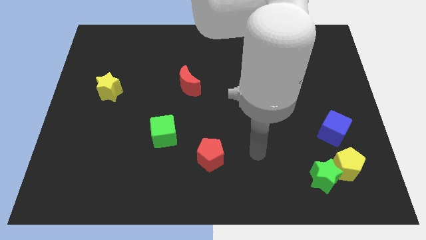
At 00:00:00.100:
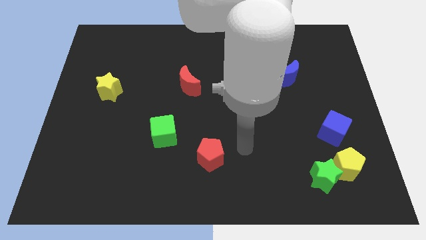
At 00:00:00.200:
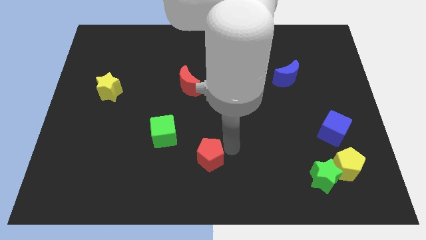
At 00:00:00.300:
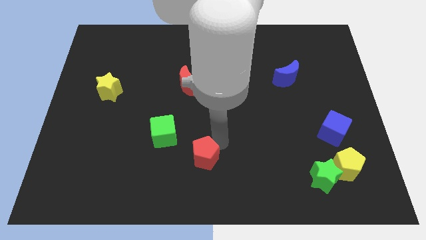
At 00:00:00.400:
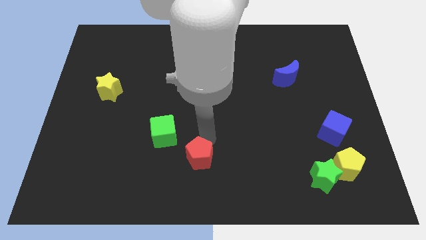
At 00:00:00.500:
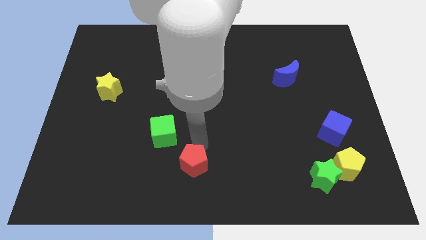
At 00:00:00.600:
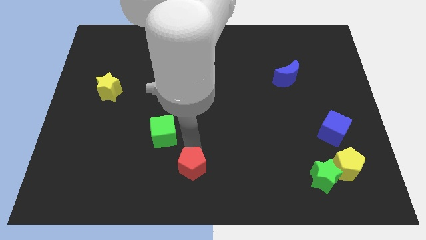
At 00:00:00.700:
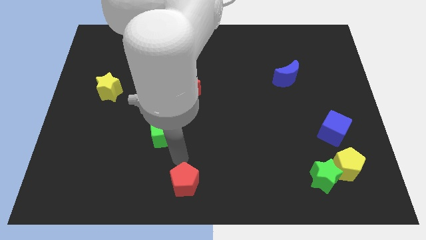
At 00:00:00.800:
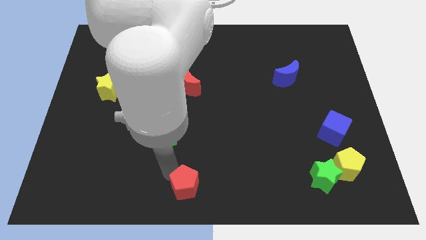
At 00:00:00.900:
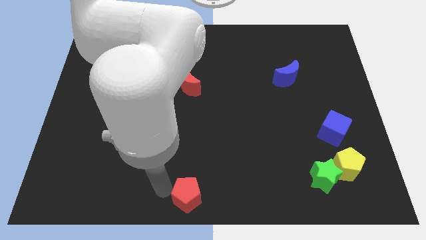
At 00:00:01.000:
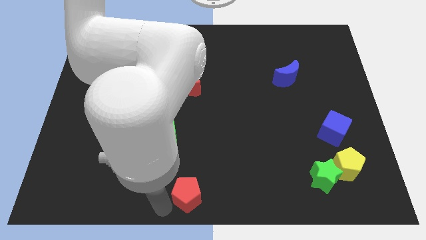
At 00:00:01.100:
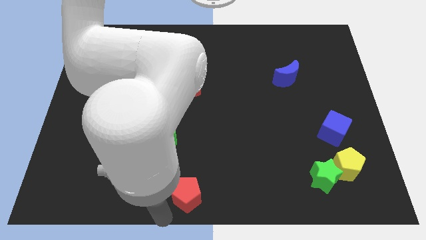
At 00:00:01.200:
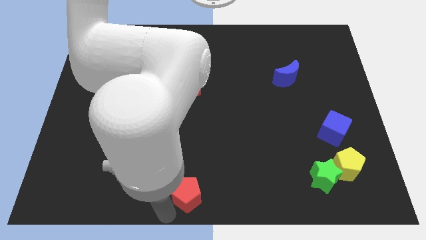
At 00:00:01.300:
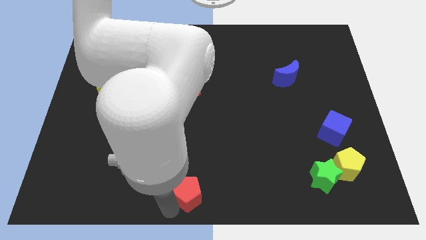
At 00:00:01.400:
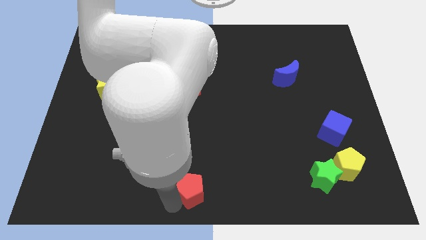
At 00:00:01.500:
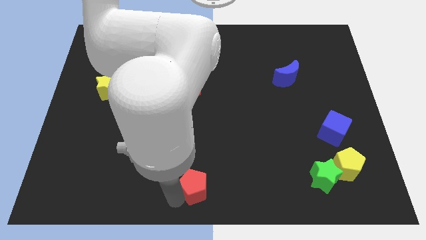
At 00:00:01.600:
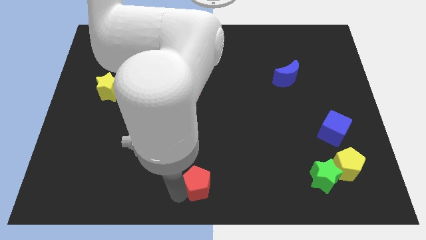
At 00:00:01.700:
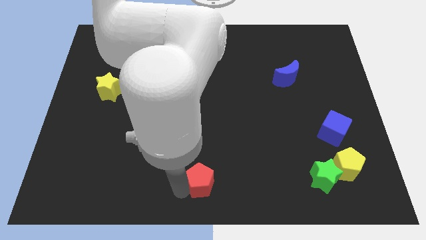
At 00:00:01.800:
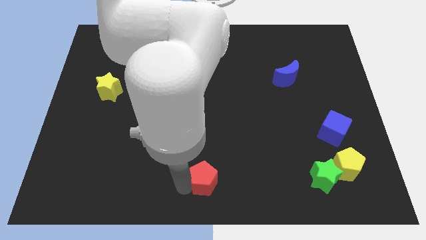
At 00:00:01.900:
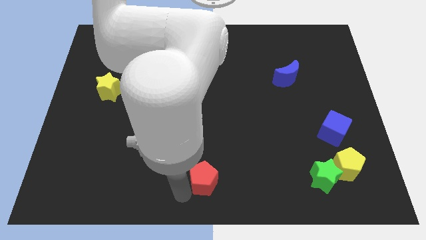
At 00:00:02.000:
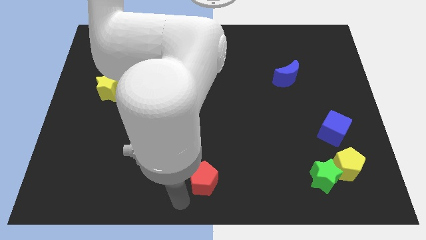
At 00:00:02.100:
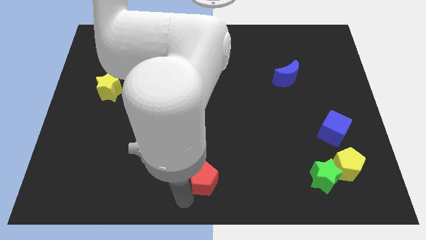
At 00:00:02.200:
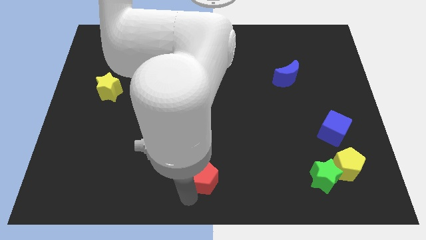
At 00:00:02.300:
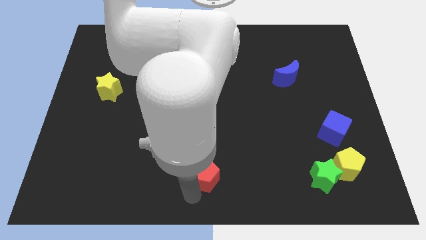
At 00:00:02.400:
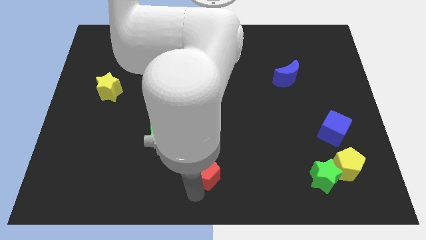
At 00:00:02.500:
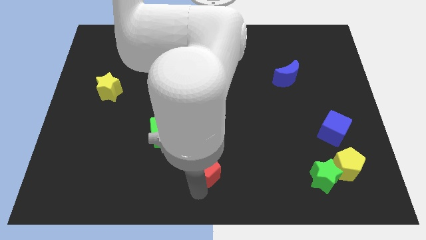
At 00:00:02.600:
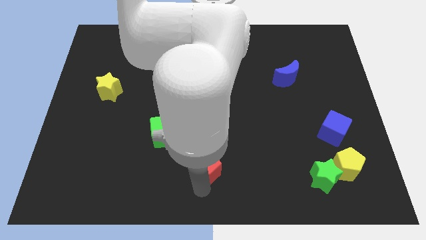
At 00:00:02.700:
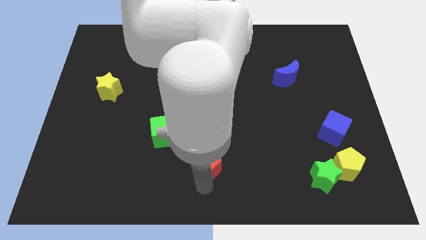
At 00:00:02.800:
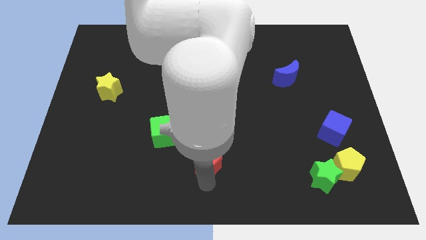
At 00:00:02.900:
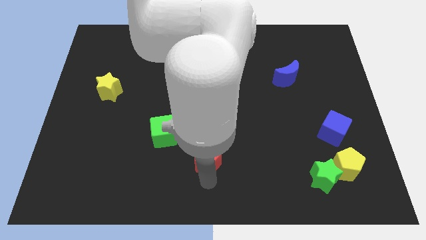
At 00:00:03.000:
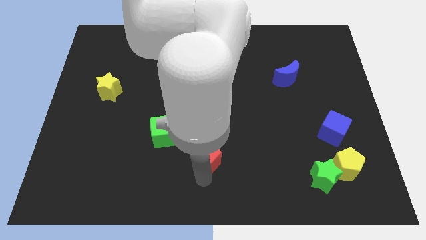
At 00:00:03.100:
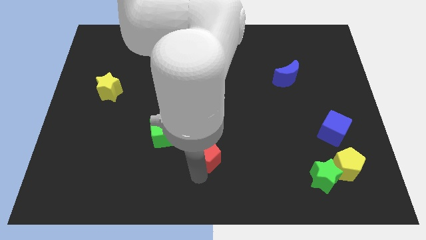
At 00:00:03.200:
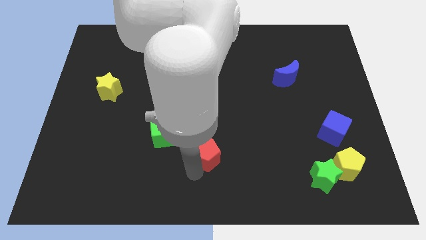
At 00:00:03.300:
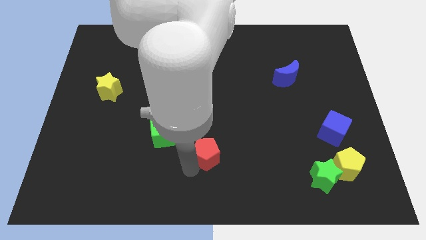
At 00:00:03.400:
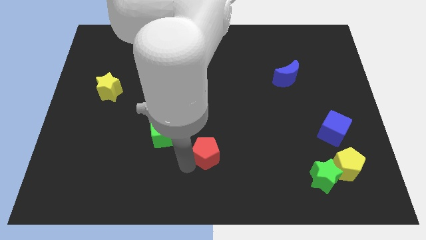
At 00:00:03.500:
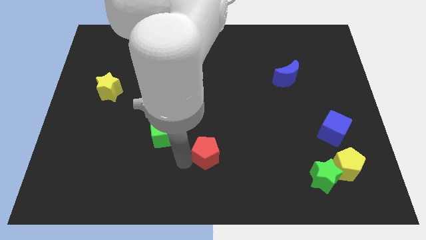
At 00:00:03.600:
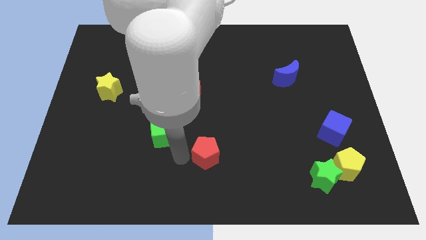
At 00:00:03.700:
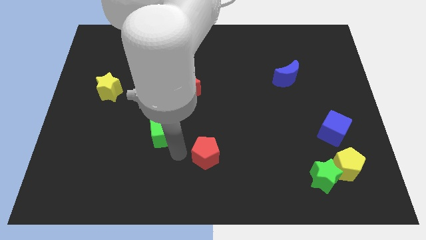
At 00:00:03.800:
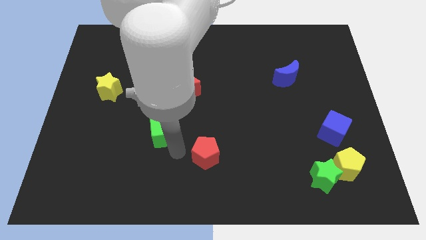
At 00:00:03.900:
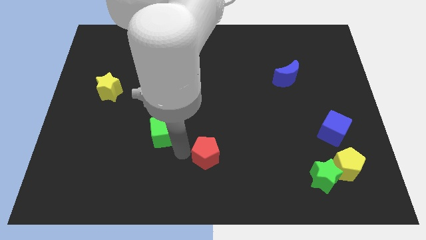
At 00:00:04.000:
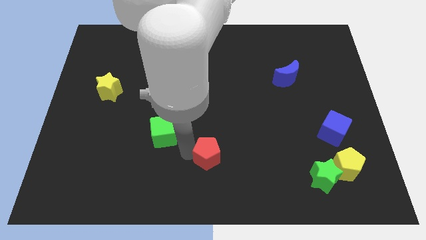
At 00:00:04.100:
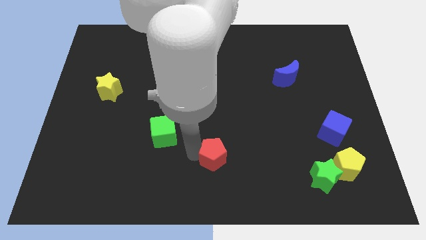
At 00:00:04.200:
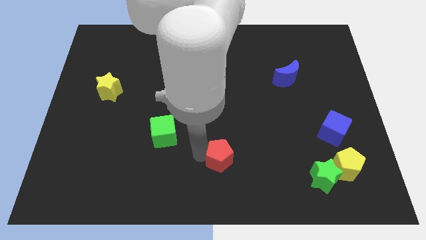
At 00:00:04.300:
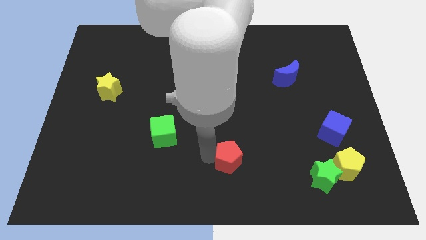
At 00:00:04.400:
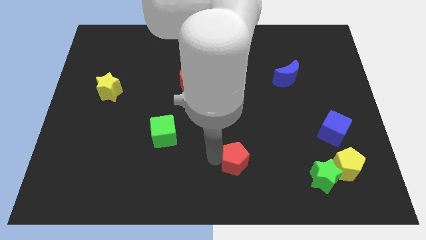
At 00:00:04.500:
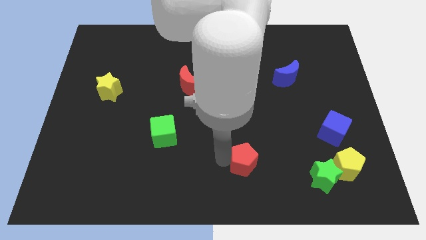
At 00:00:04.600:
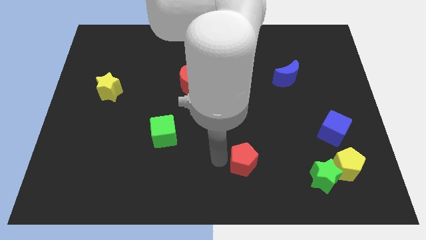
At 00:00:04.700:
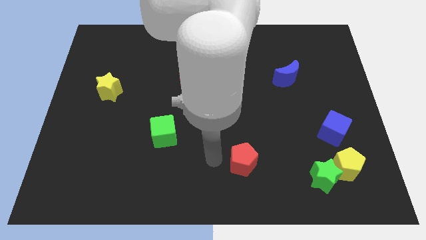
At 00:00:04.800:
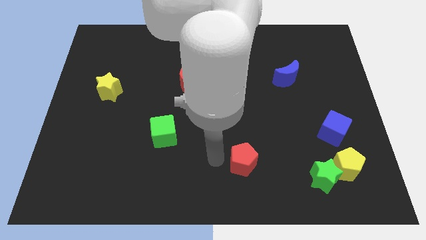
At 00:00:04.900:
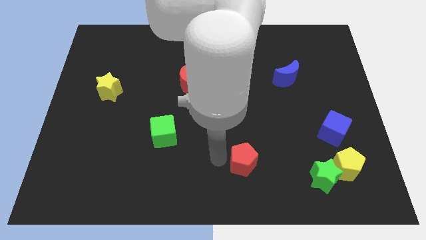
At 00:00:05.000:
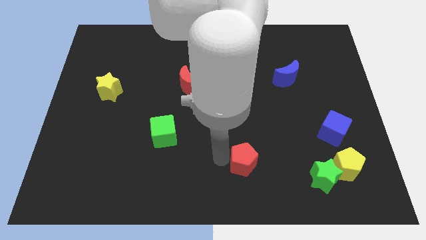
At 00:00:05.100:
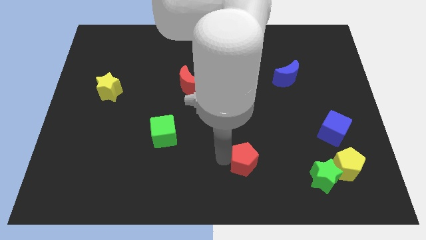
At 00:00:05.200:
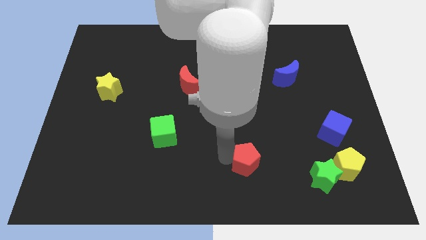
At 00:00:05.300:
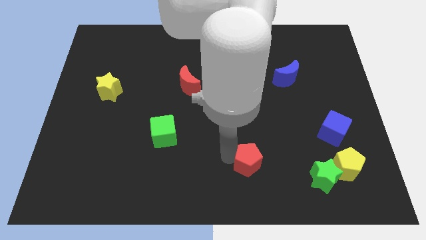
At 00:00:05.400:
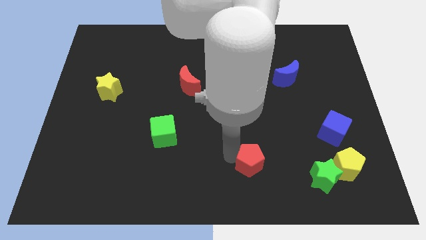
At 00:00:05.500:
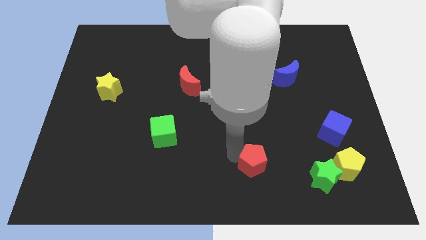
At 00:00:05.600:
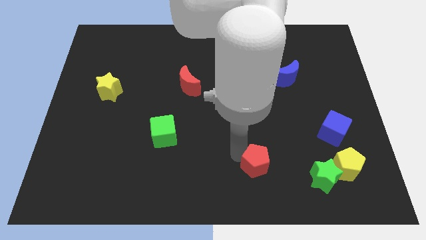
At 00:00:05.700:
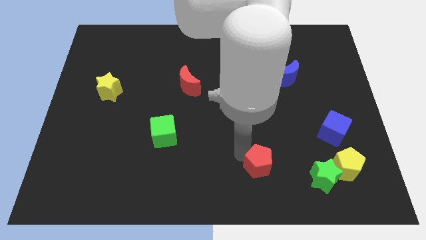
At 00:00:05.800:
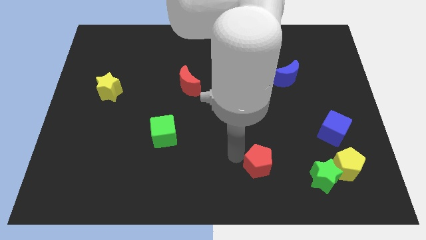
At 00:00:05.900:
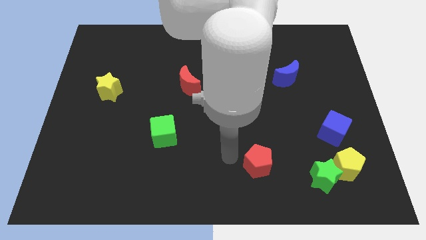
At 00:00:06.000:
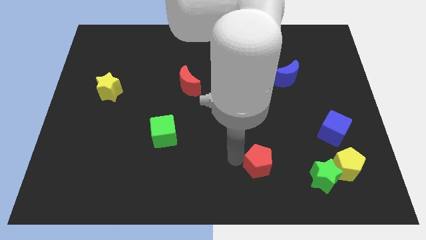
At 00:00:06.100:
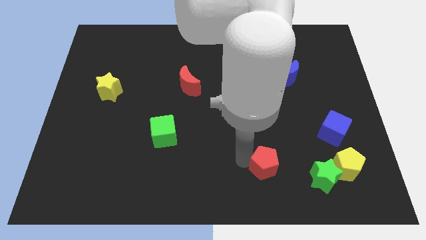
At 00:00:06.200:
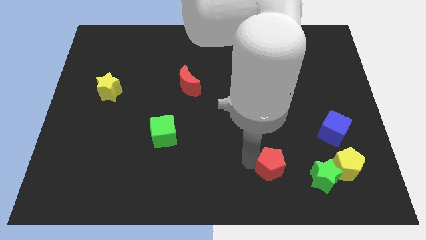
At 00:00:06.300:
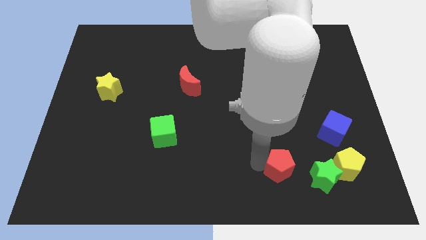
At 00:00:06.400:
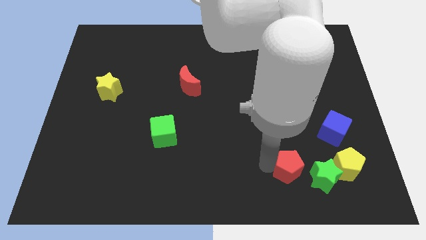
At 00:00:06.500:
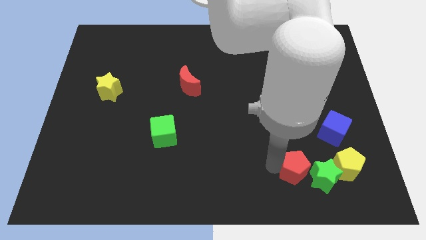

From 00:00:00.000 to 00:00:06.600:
move the red pentagon towards the green star
